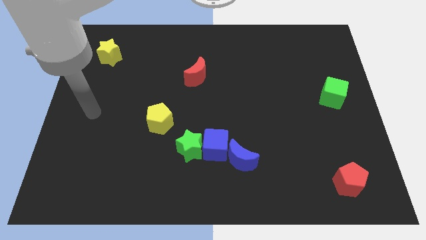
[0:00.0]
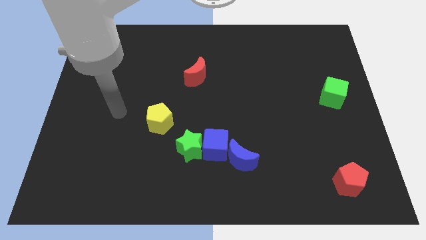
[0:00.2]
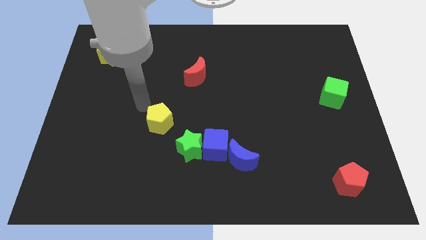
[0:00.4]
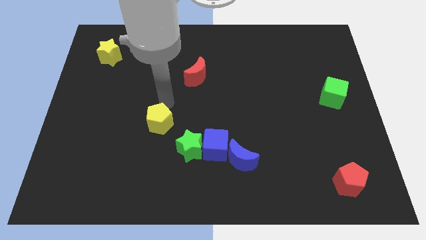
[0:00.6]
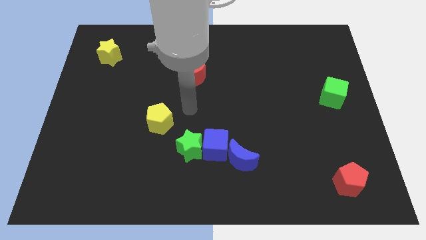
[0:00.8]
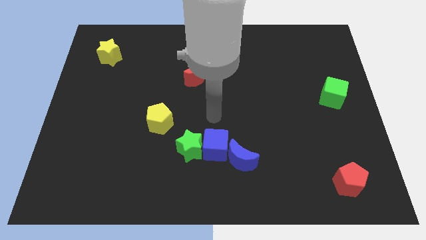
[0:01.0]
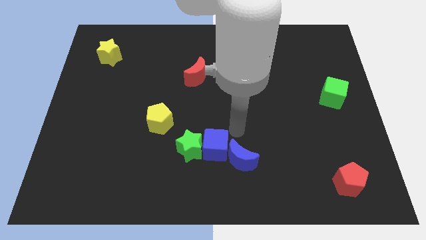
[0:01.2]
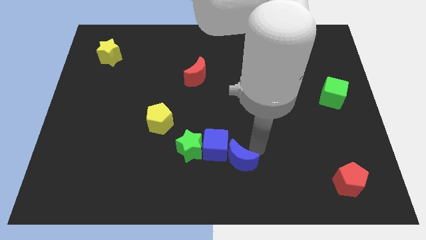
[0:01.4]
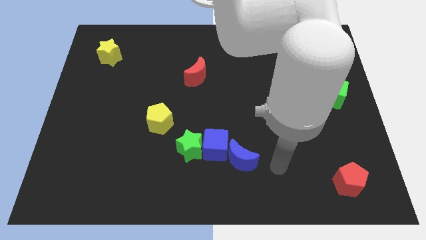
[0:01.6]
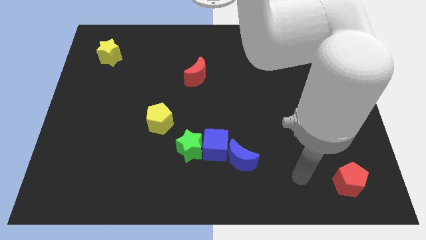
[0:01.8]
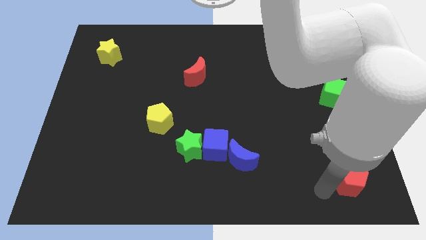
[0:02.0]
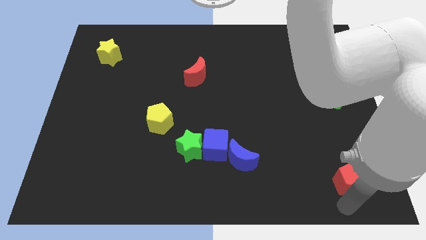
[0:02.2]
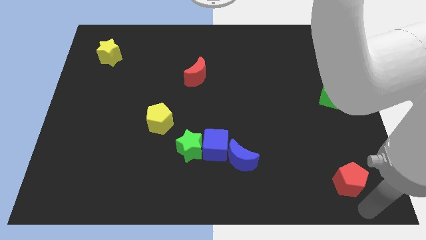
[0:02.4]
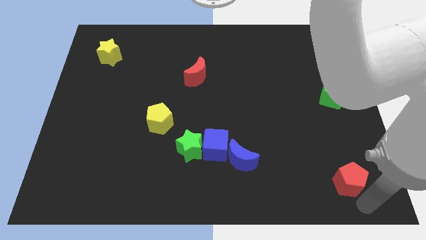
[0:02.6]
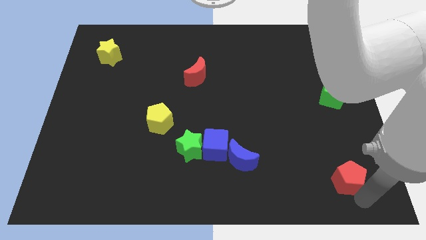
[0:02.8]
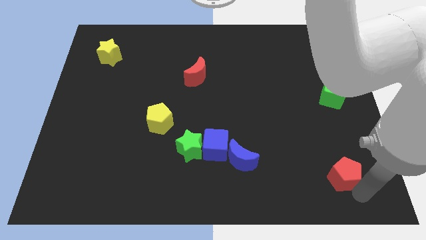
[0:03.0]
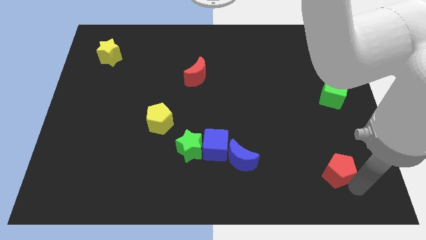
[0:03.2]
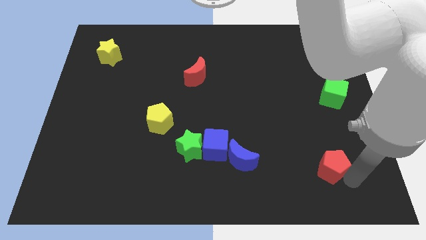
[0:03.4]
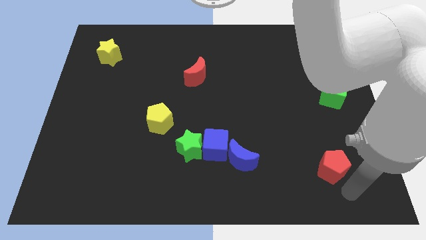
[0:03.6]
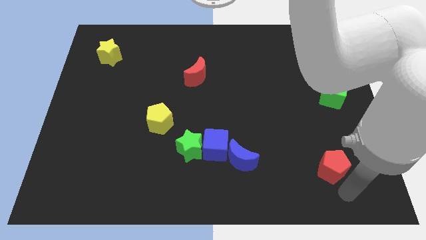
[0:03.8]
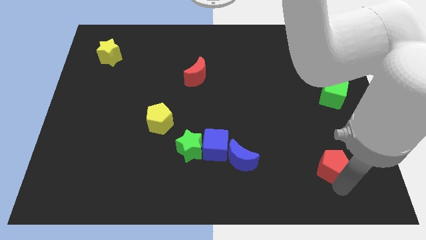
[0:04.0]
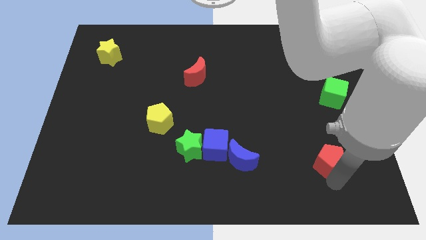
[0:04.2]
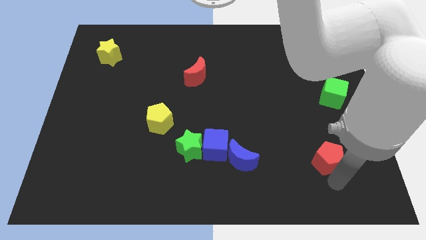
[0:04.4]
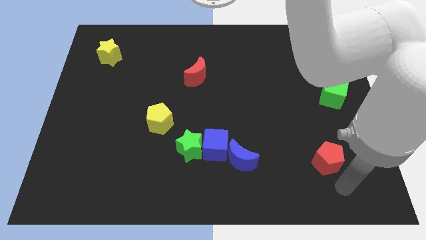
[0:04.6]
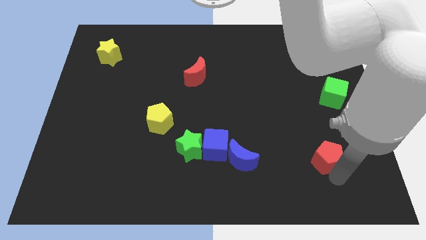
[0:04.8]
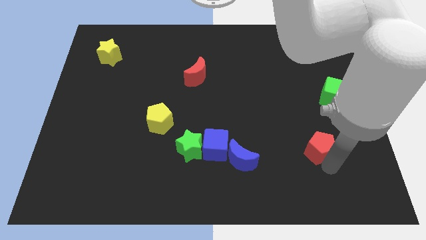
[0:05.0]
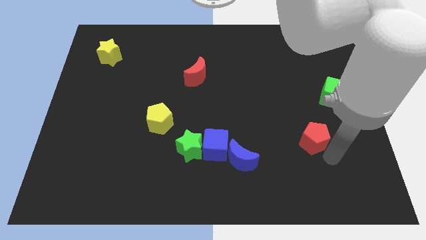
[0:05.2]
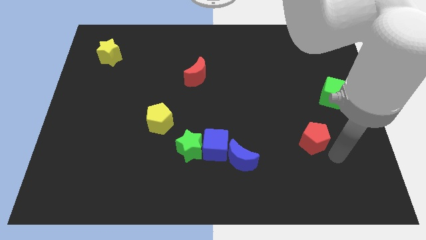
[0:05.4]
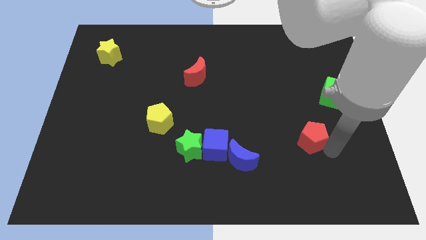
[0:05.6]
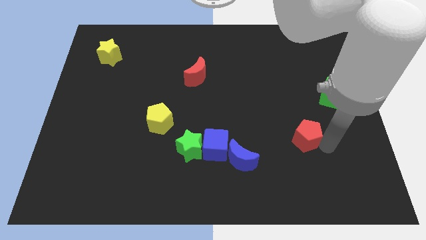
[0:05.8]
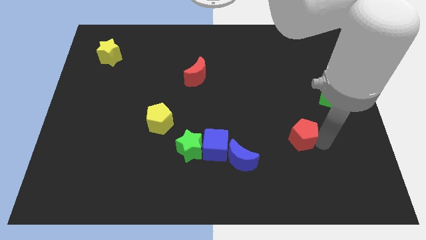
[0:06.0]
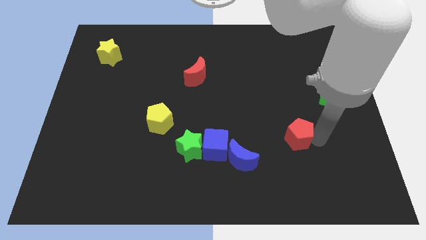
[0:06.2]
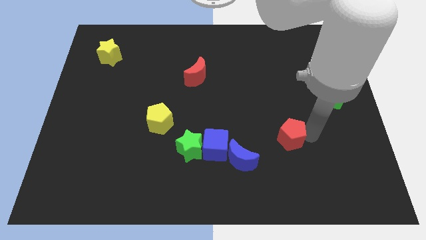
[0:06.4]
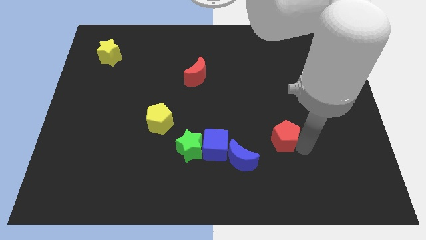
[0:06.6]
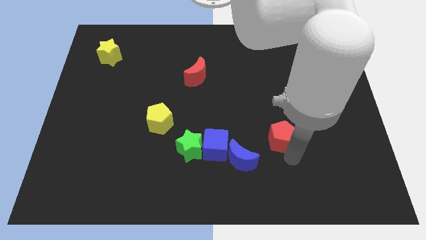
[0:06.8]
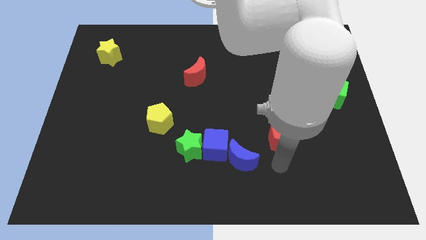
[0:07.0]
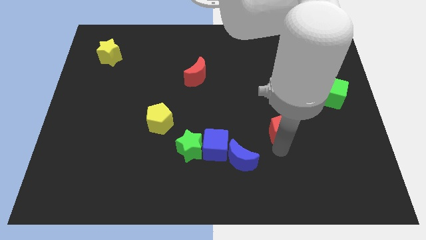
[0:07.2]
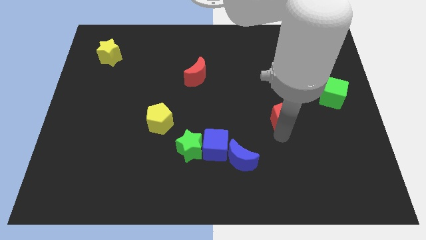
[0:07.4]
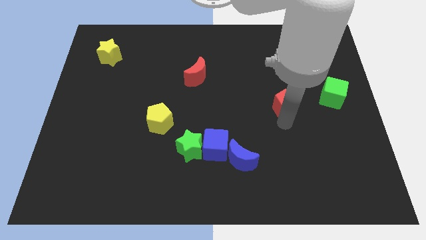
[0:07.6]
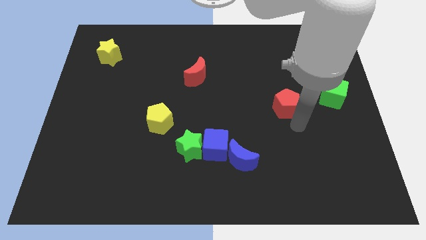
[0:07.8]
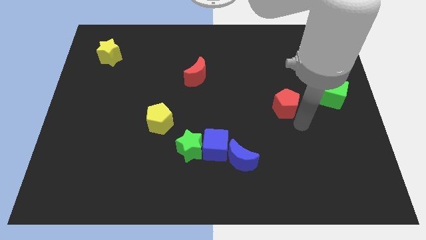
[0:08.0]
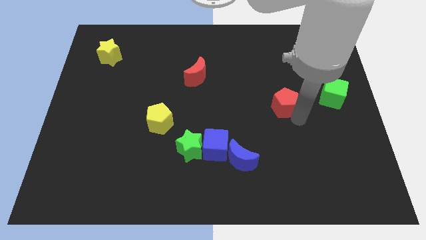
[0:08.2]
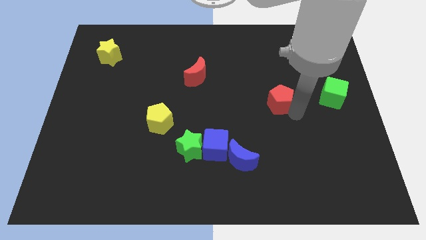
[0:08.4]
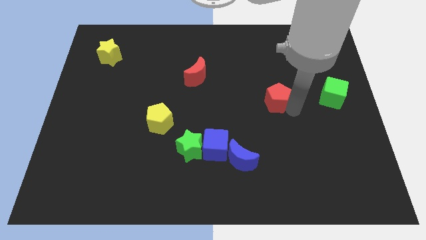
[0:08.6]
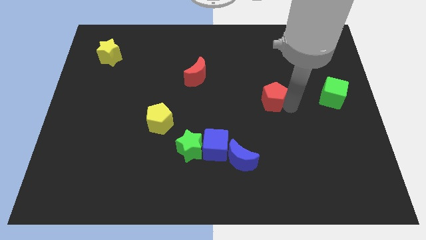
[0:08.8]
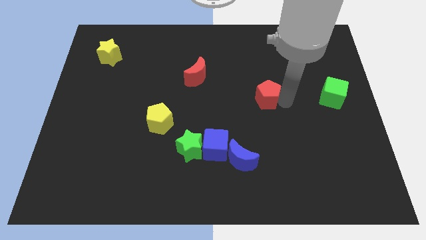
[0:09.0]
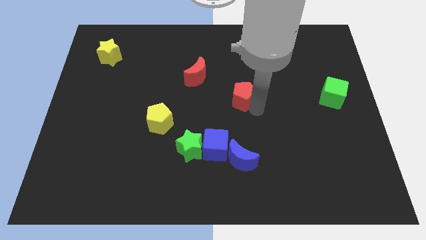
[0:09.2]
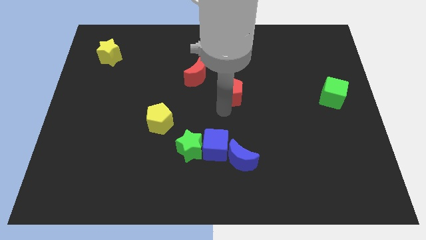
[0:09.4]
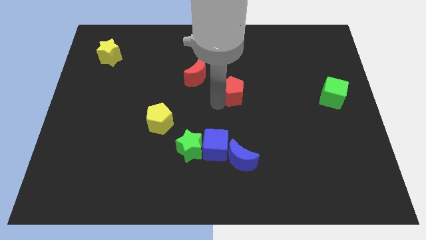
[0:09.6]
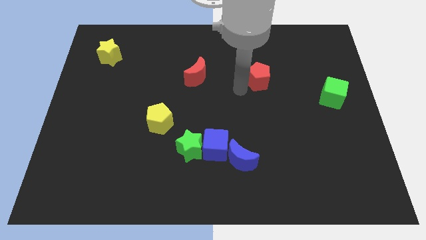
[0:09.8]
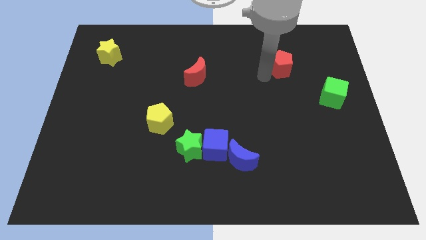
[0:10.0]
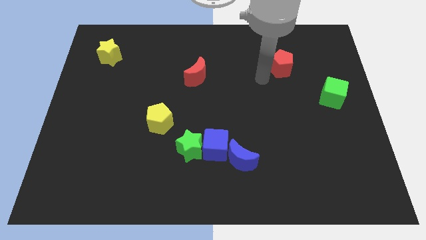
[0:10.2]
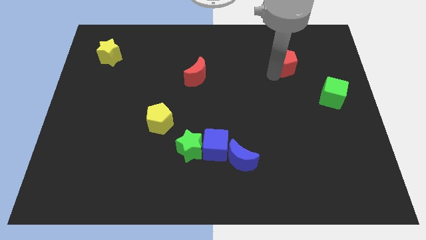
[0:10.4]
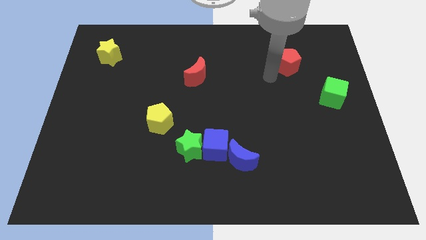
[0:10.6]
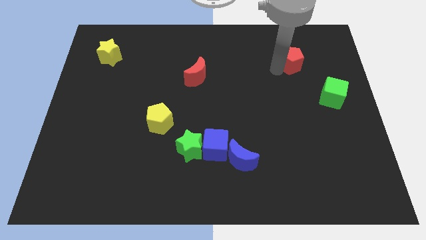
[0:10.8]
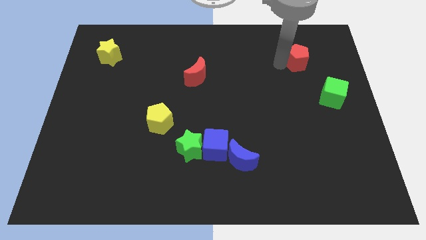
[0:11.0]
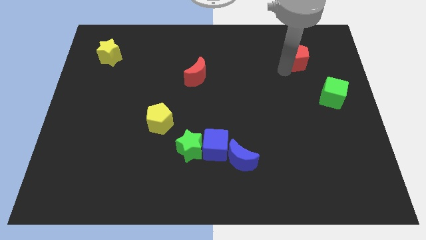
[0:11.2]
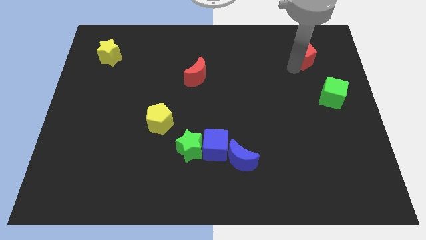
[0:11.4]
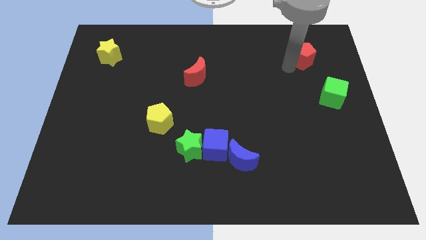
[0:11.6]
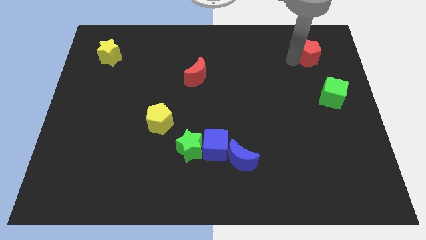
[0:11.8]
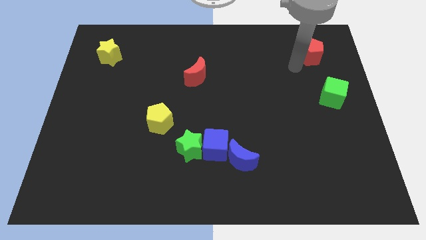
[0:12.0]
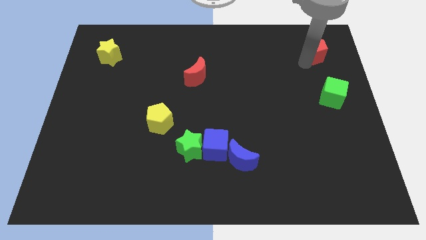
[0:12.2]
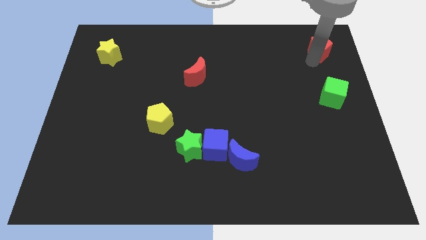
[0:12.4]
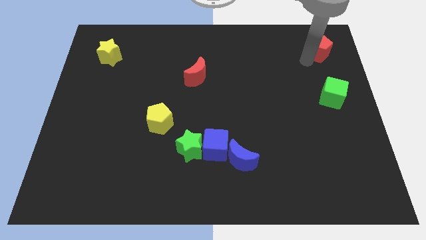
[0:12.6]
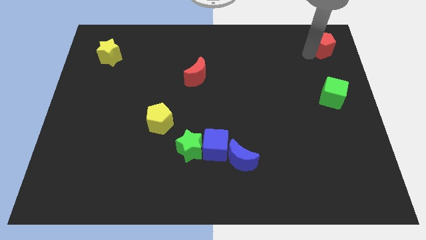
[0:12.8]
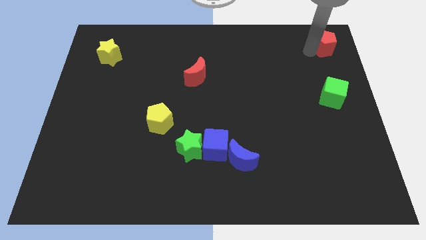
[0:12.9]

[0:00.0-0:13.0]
slide the red pentagon to the upper right corner

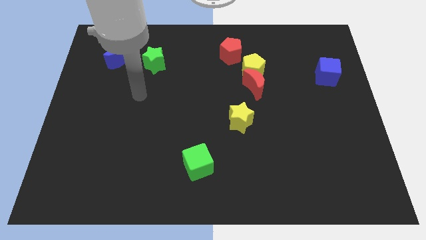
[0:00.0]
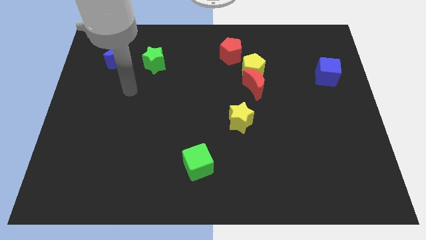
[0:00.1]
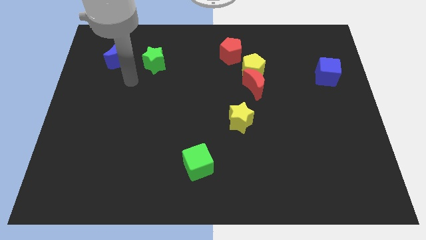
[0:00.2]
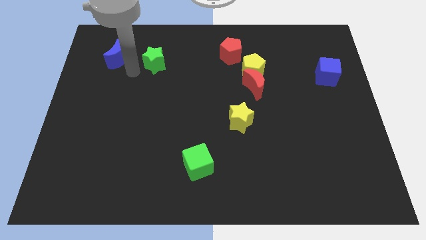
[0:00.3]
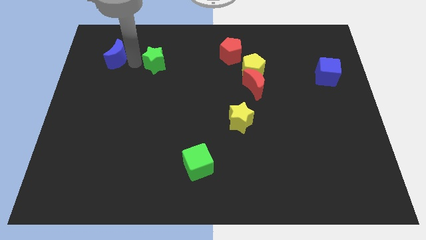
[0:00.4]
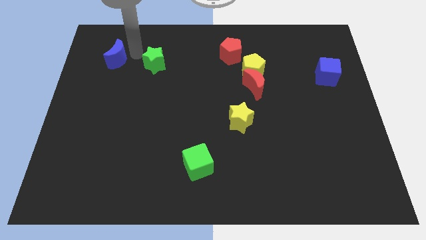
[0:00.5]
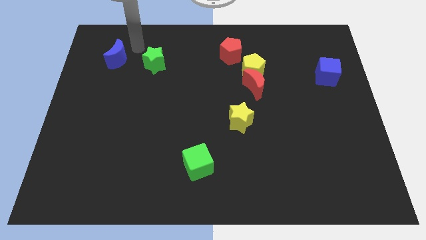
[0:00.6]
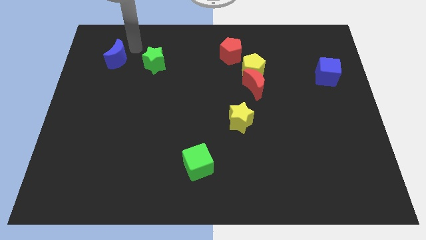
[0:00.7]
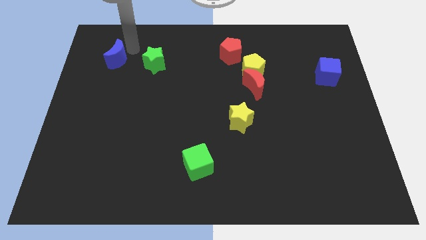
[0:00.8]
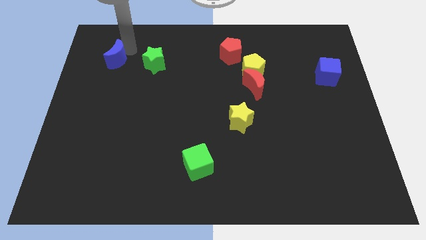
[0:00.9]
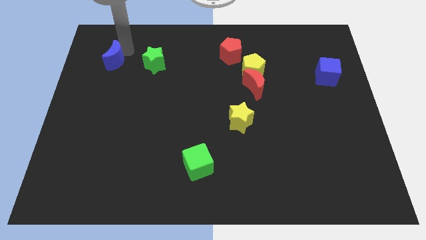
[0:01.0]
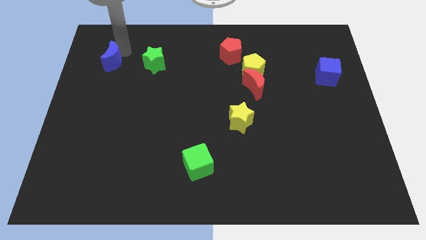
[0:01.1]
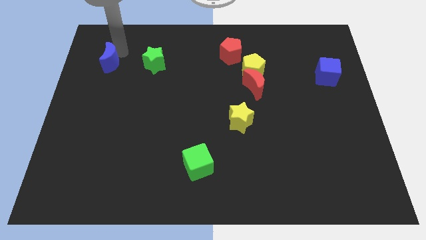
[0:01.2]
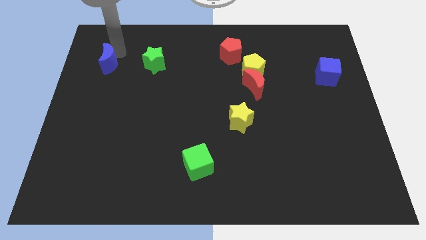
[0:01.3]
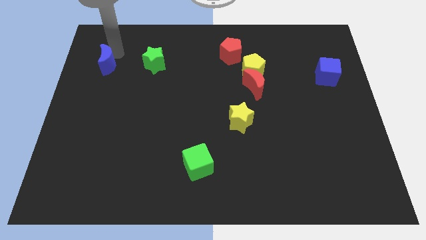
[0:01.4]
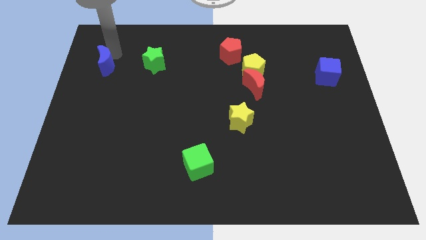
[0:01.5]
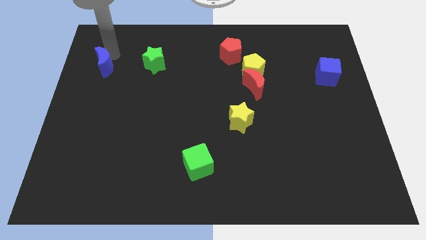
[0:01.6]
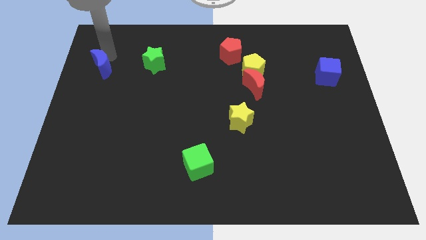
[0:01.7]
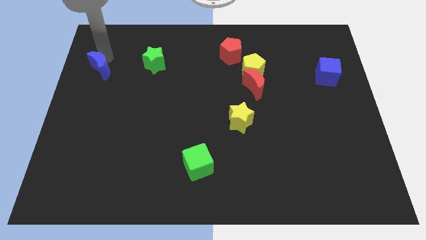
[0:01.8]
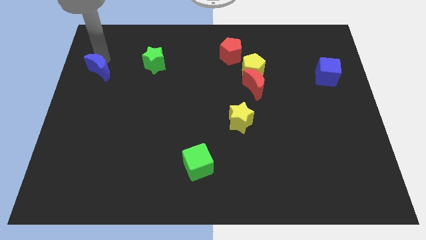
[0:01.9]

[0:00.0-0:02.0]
push the blue moon to the left side
